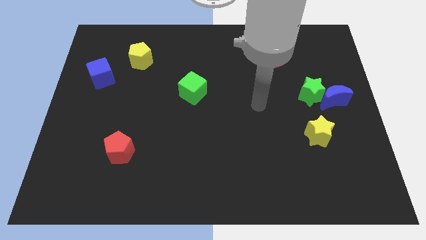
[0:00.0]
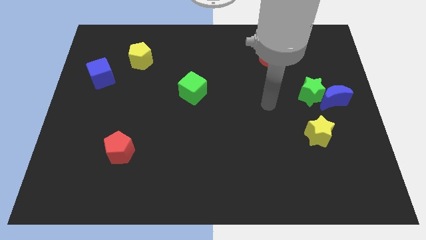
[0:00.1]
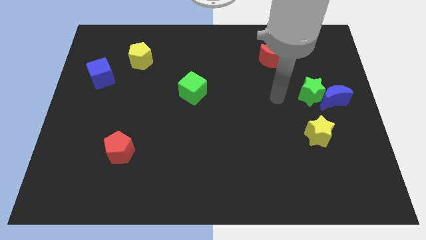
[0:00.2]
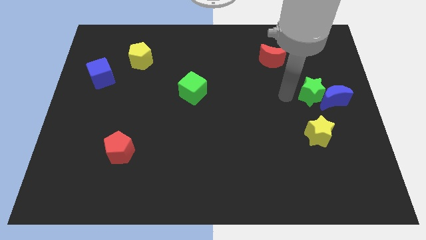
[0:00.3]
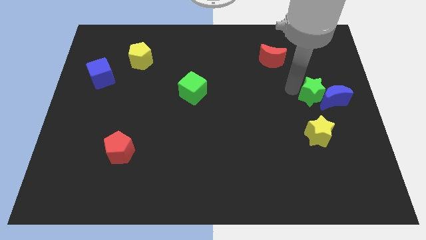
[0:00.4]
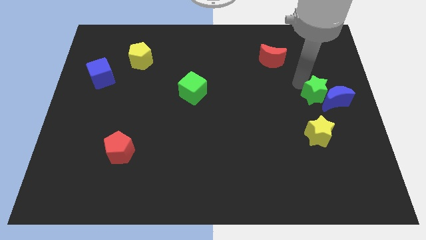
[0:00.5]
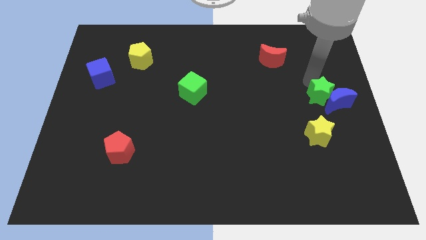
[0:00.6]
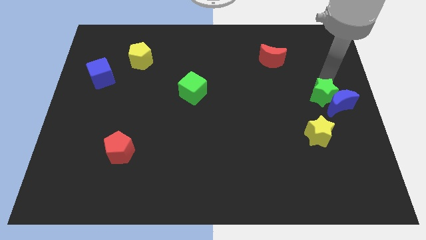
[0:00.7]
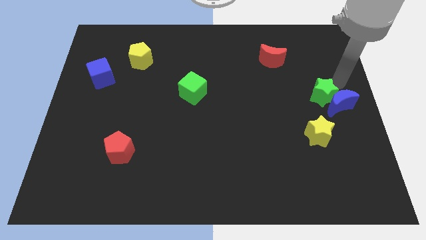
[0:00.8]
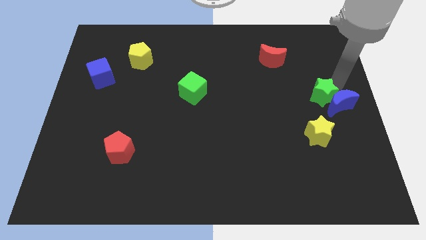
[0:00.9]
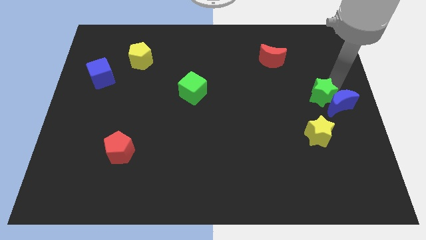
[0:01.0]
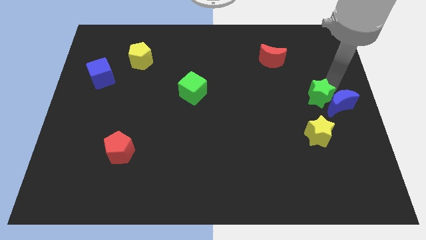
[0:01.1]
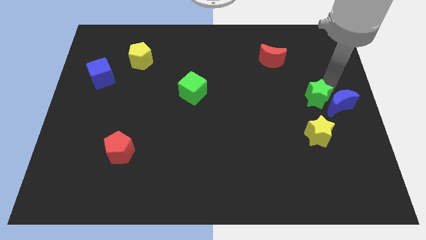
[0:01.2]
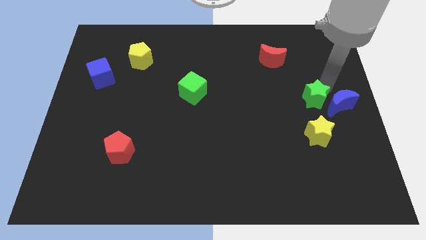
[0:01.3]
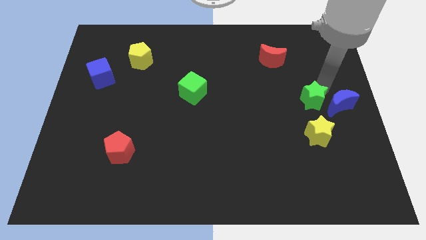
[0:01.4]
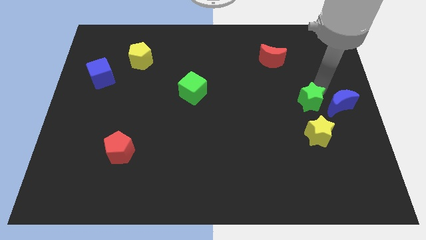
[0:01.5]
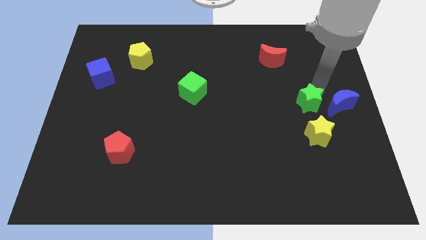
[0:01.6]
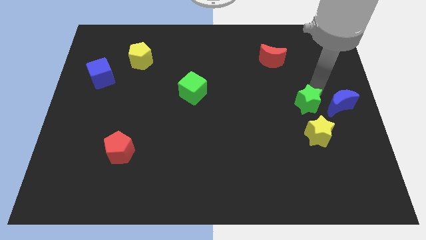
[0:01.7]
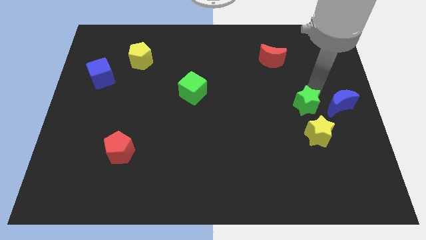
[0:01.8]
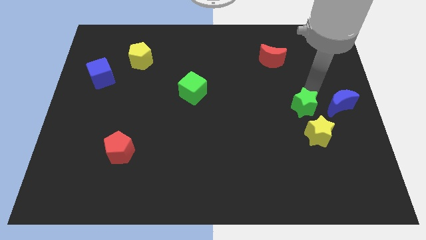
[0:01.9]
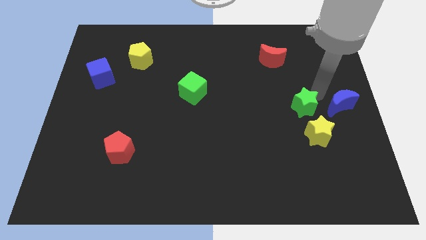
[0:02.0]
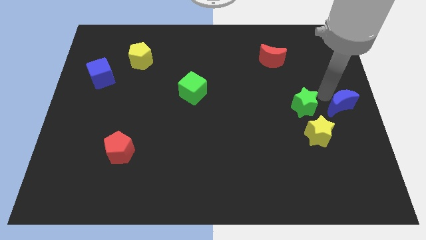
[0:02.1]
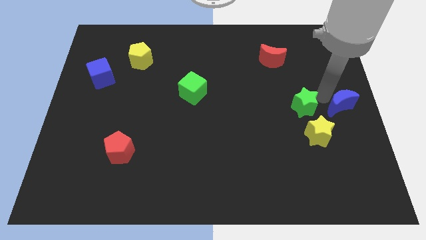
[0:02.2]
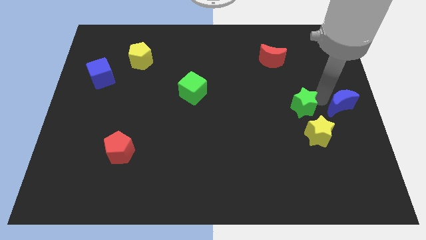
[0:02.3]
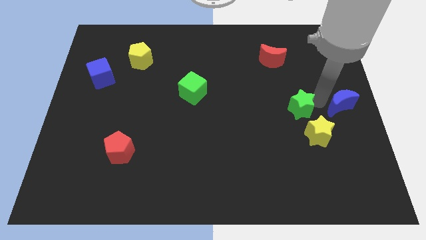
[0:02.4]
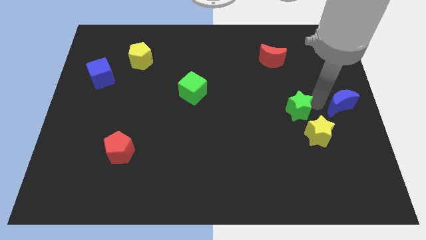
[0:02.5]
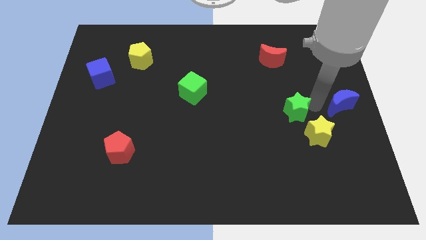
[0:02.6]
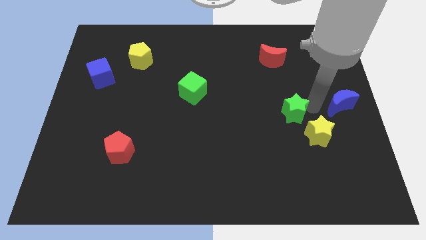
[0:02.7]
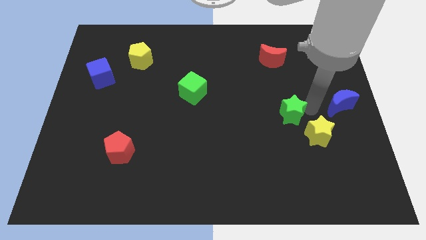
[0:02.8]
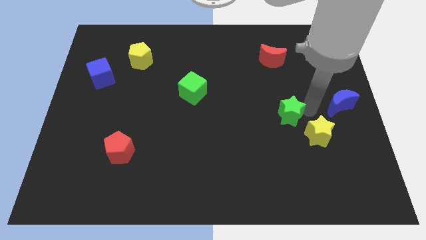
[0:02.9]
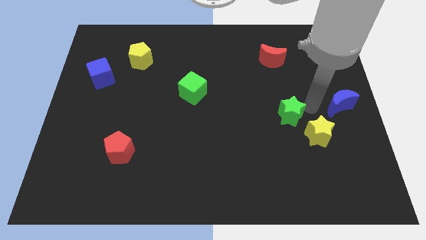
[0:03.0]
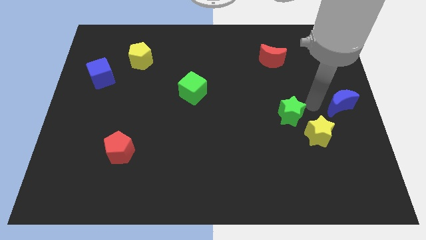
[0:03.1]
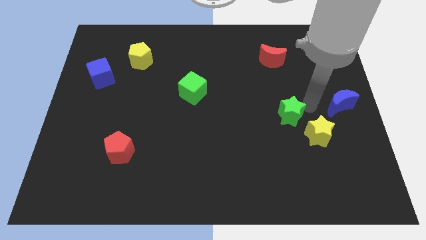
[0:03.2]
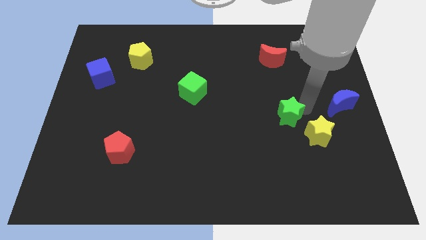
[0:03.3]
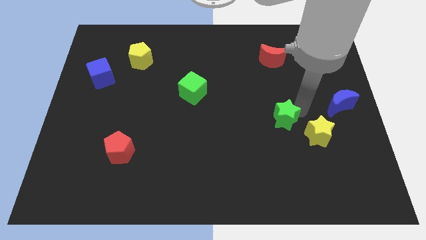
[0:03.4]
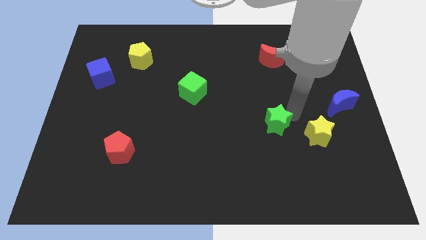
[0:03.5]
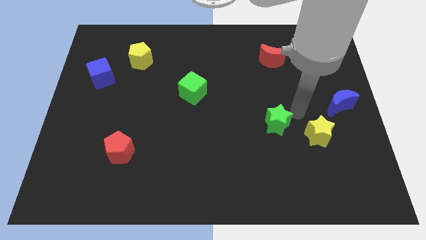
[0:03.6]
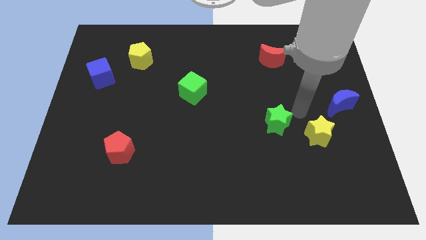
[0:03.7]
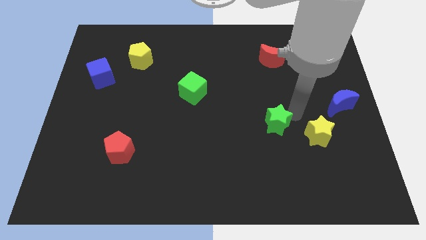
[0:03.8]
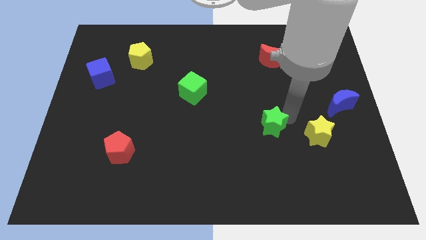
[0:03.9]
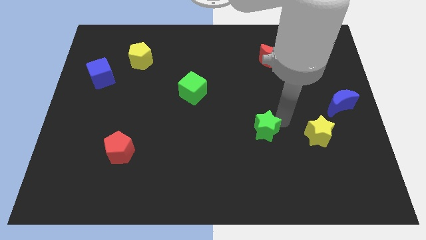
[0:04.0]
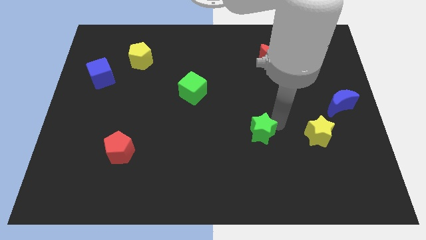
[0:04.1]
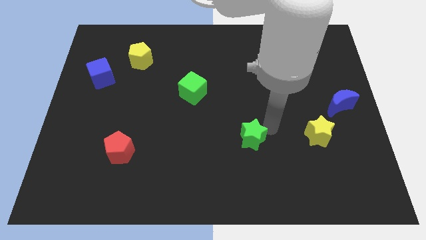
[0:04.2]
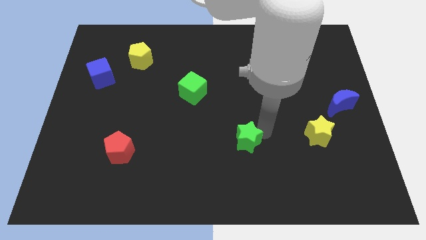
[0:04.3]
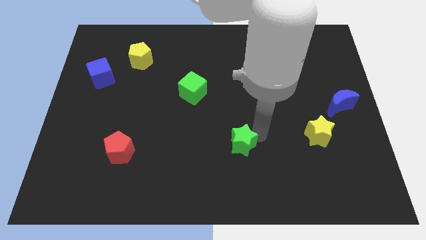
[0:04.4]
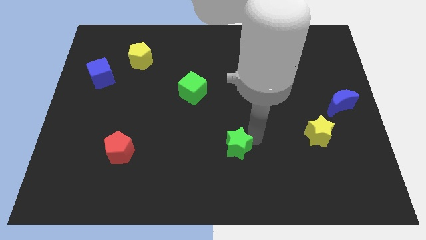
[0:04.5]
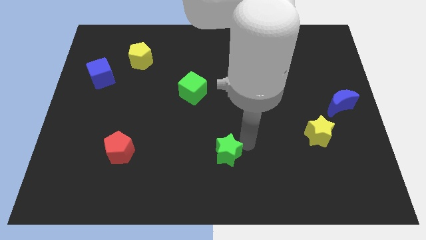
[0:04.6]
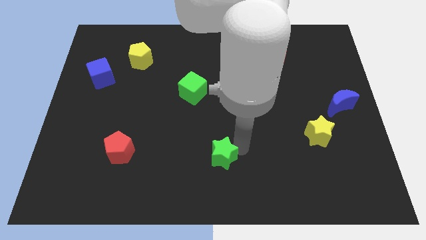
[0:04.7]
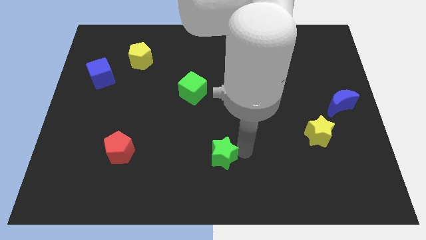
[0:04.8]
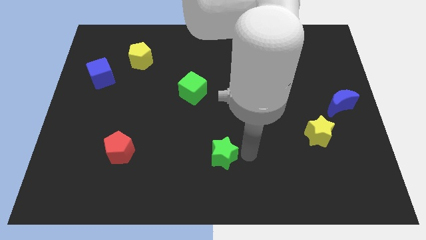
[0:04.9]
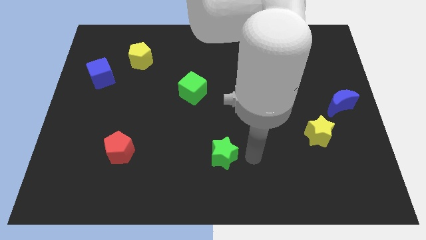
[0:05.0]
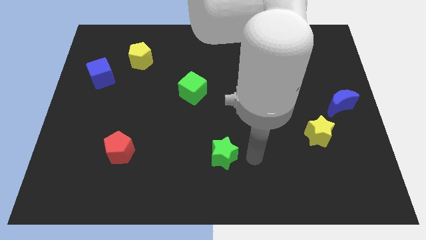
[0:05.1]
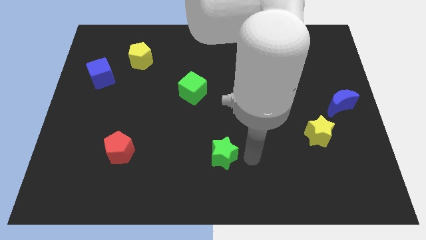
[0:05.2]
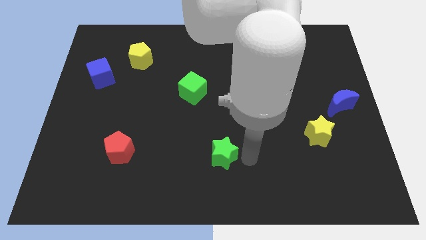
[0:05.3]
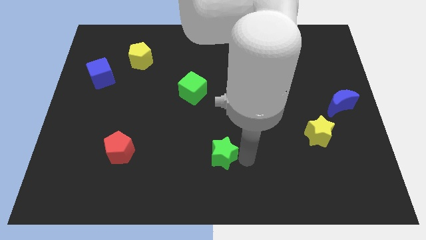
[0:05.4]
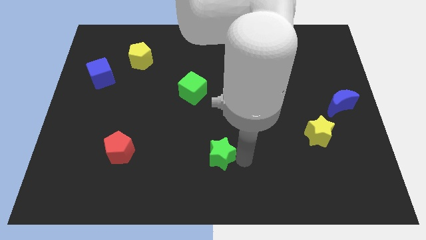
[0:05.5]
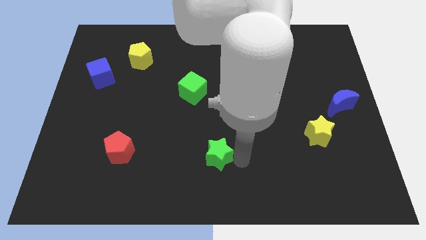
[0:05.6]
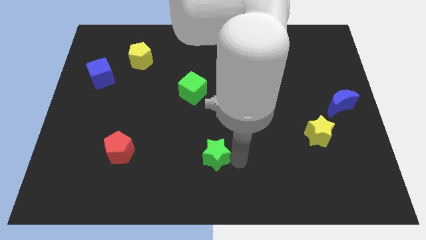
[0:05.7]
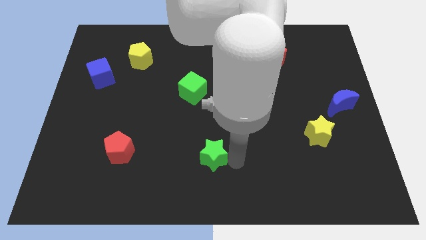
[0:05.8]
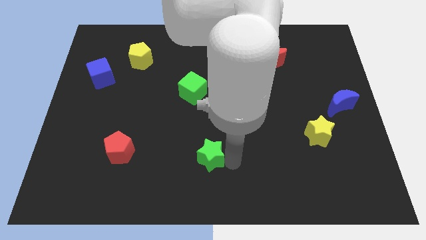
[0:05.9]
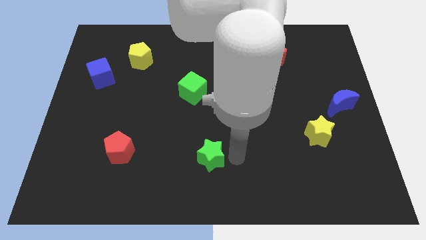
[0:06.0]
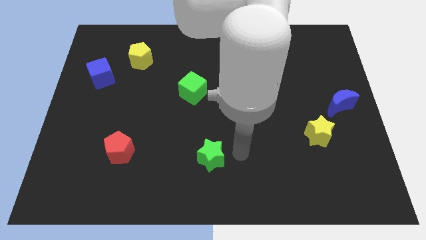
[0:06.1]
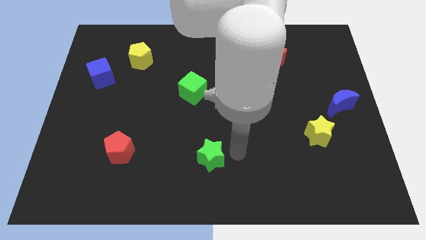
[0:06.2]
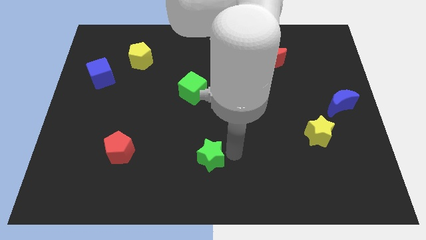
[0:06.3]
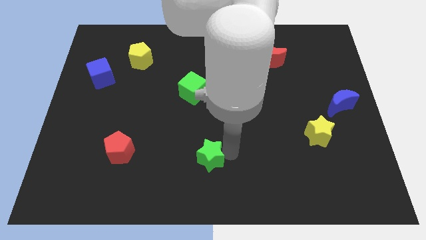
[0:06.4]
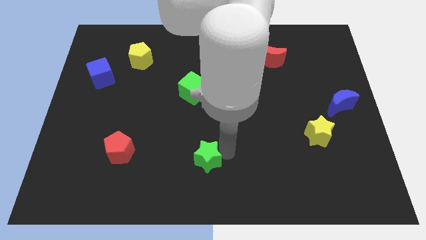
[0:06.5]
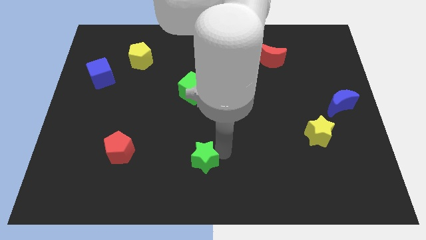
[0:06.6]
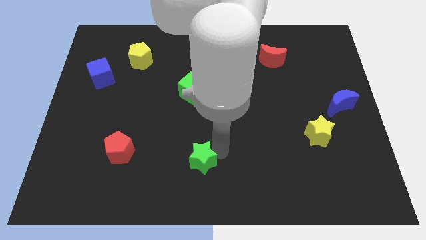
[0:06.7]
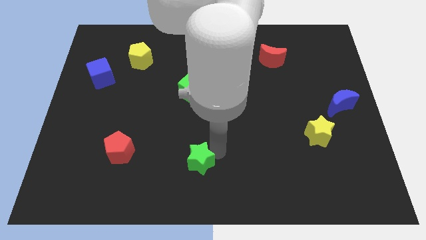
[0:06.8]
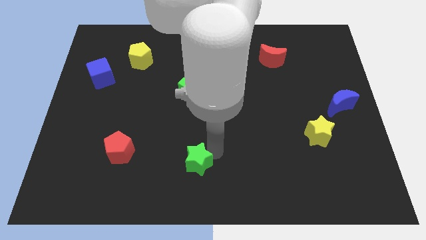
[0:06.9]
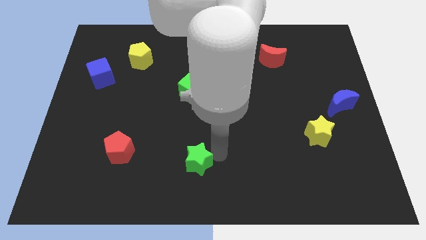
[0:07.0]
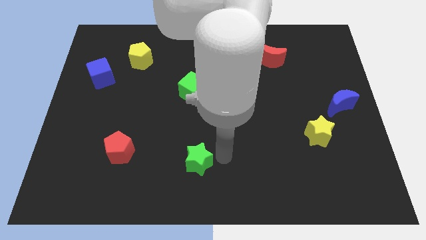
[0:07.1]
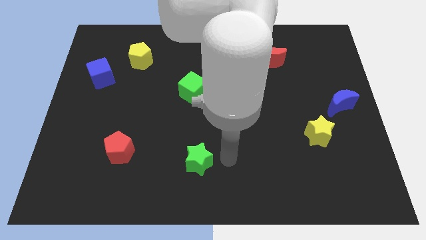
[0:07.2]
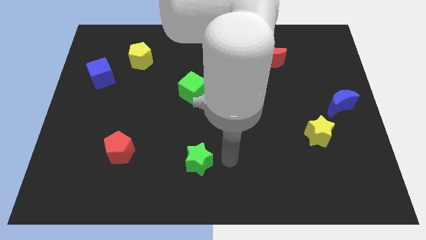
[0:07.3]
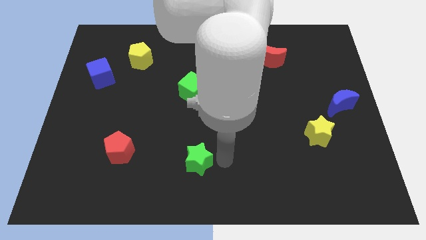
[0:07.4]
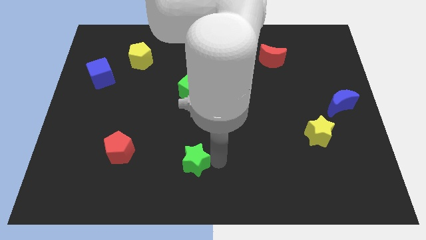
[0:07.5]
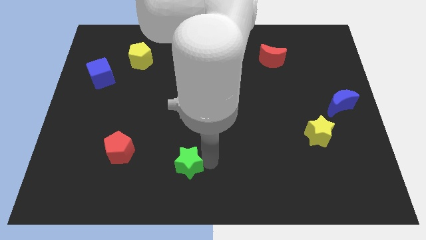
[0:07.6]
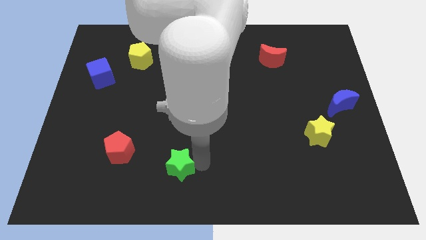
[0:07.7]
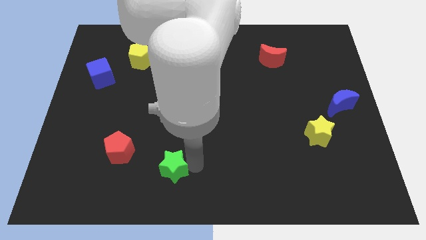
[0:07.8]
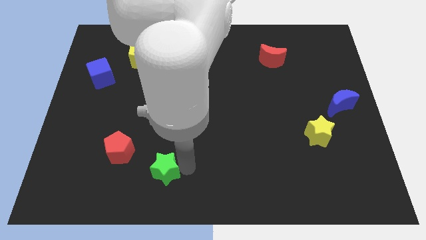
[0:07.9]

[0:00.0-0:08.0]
slide the green star diagonally down and to the right of the red pentagon
